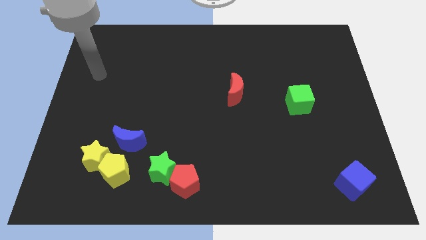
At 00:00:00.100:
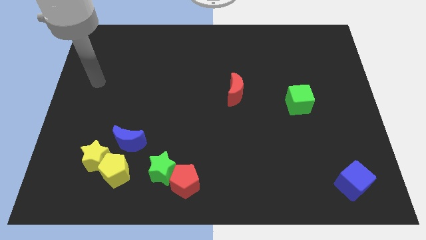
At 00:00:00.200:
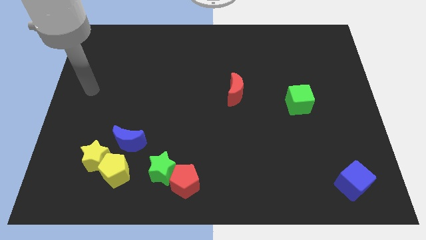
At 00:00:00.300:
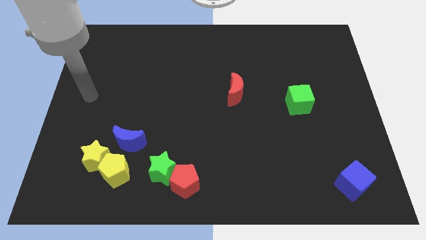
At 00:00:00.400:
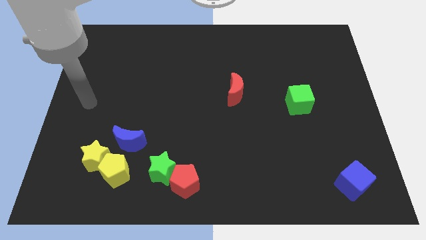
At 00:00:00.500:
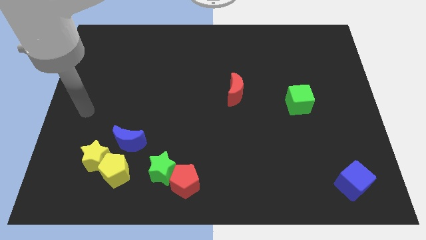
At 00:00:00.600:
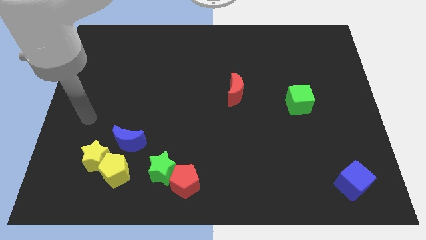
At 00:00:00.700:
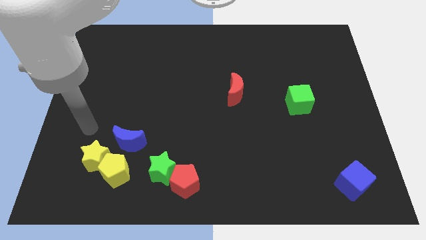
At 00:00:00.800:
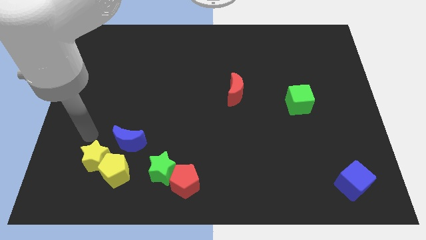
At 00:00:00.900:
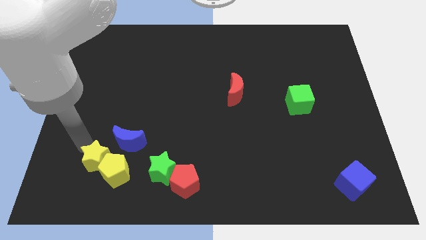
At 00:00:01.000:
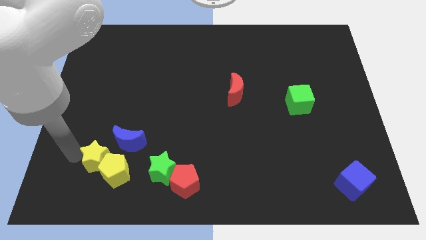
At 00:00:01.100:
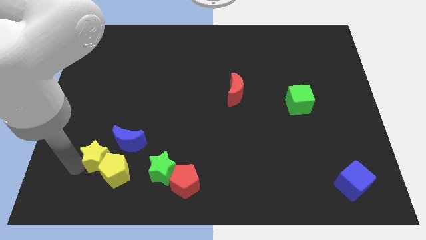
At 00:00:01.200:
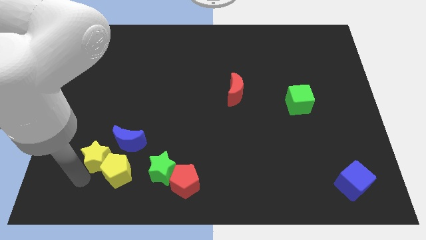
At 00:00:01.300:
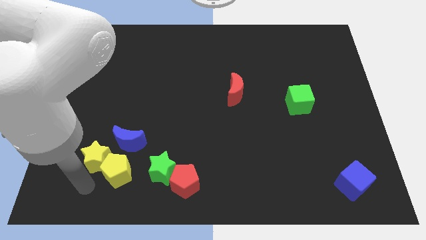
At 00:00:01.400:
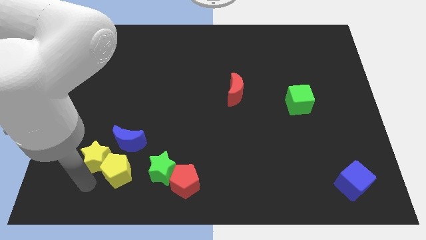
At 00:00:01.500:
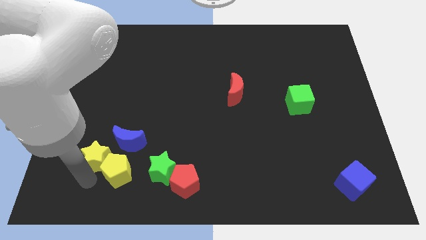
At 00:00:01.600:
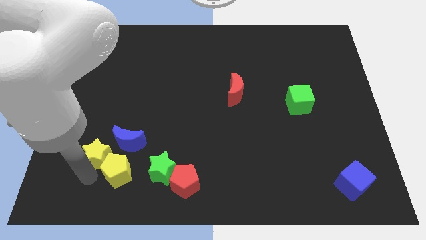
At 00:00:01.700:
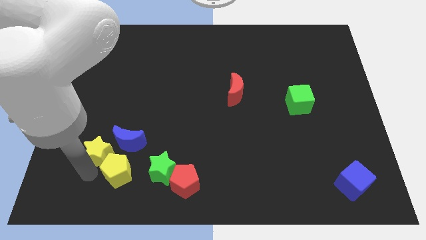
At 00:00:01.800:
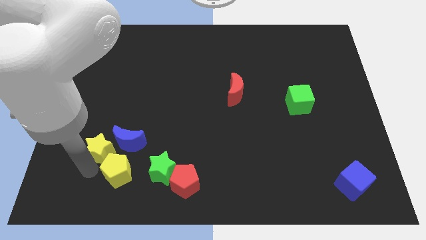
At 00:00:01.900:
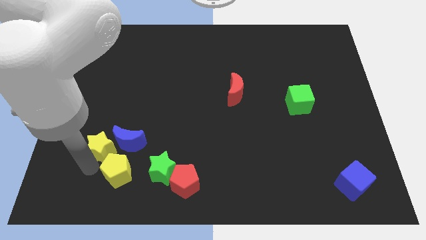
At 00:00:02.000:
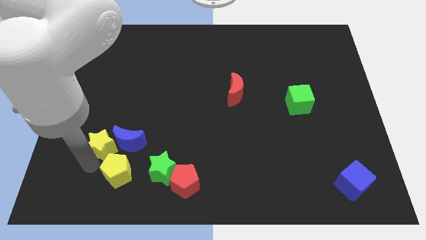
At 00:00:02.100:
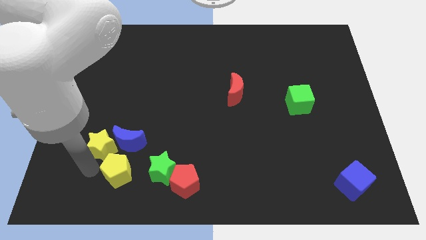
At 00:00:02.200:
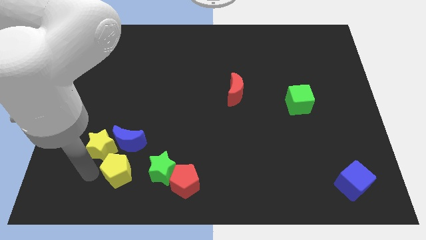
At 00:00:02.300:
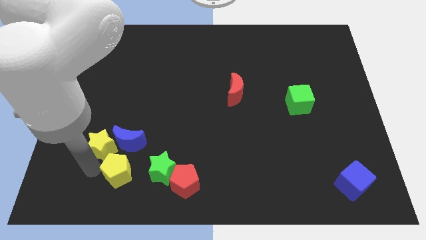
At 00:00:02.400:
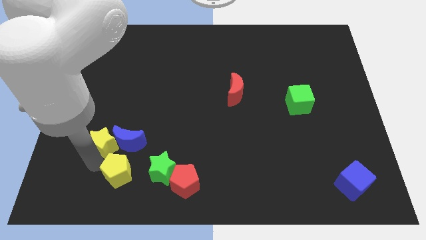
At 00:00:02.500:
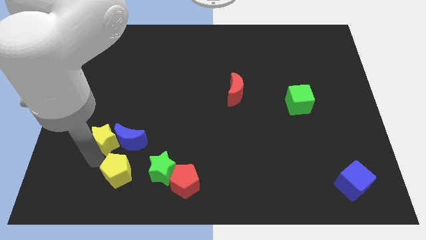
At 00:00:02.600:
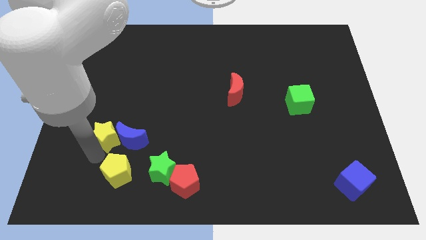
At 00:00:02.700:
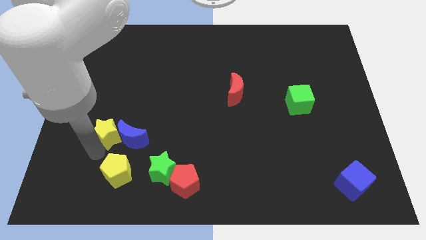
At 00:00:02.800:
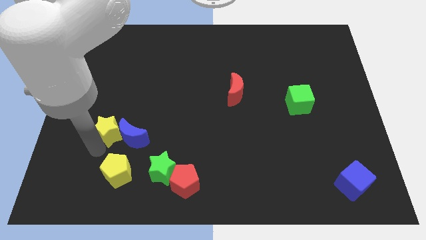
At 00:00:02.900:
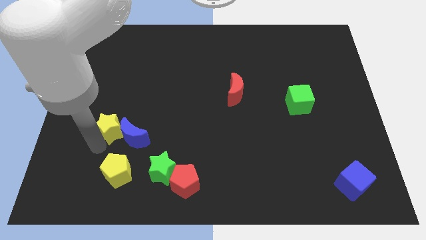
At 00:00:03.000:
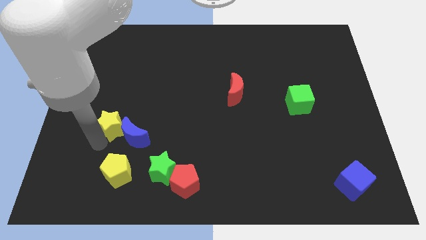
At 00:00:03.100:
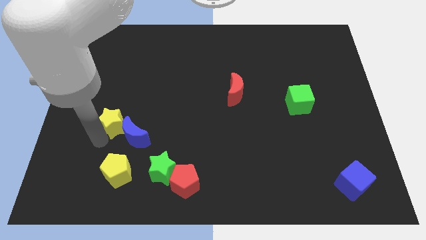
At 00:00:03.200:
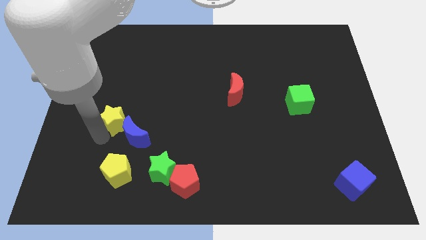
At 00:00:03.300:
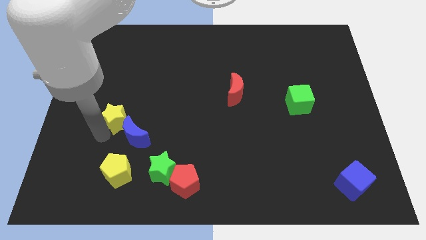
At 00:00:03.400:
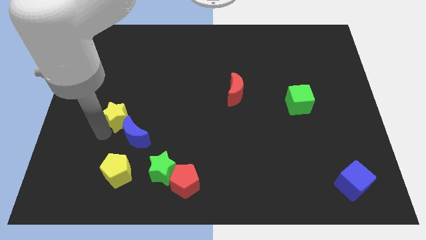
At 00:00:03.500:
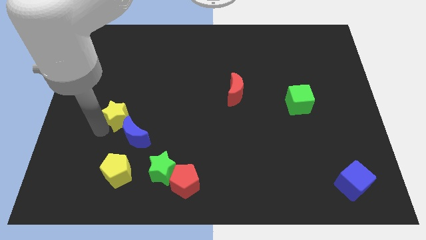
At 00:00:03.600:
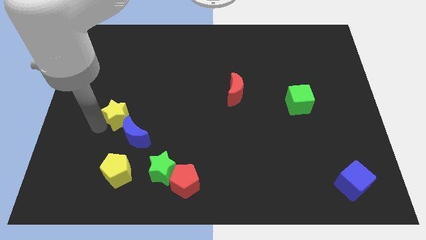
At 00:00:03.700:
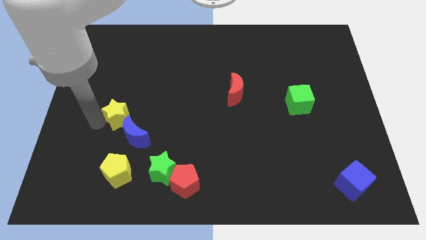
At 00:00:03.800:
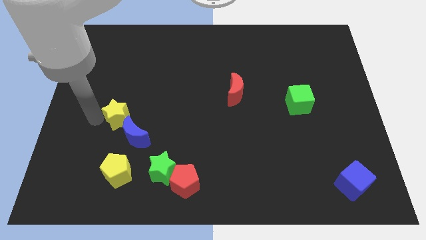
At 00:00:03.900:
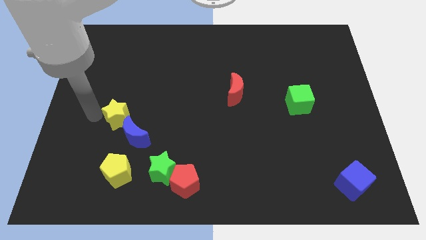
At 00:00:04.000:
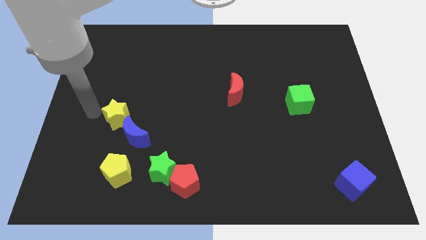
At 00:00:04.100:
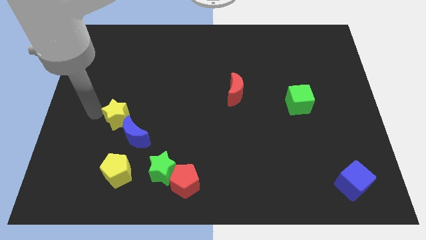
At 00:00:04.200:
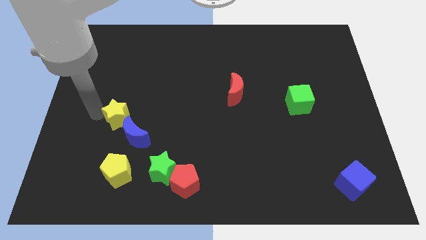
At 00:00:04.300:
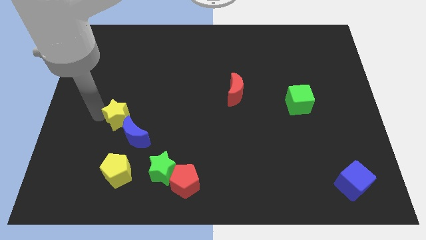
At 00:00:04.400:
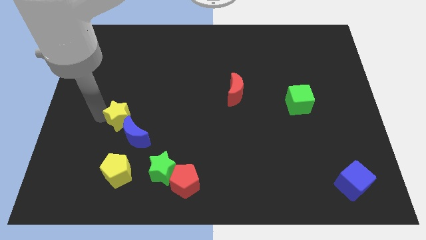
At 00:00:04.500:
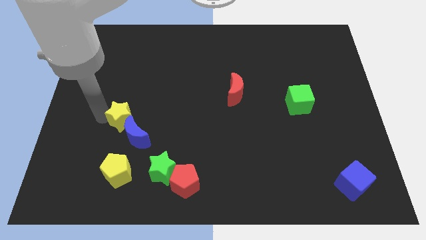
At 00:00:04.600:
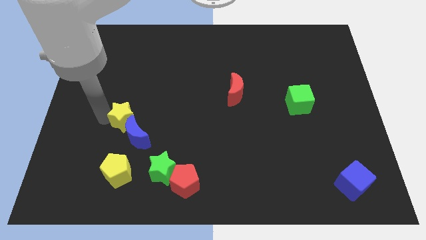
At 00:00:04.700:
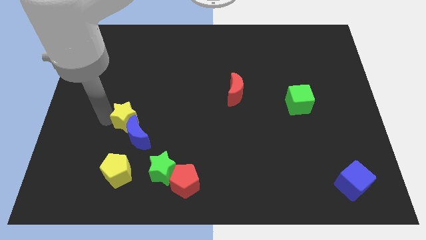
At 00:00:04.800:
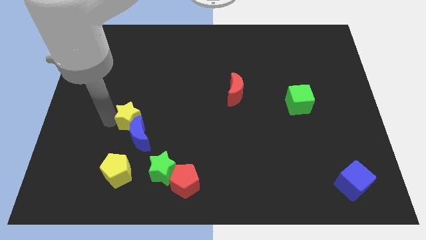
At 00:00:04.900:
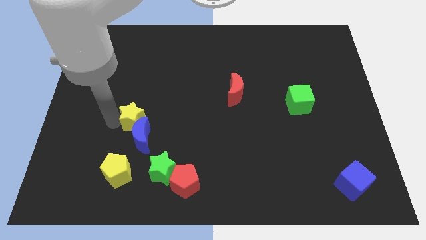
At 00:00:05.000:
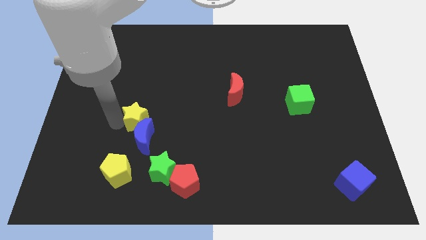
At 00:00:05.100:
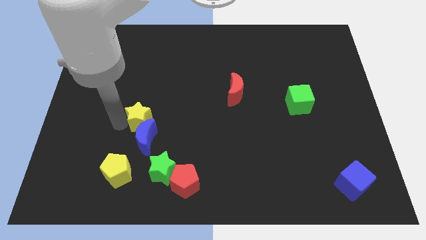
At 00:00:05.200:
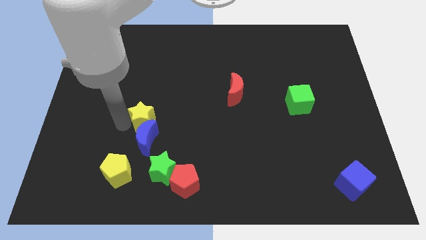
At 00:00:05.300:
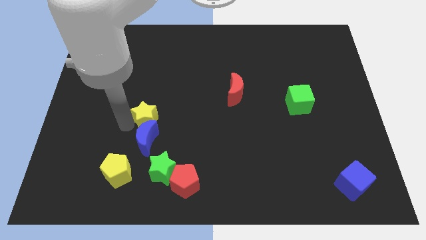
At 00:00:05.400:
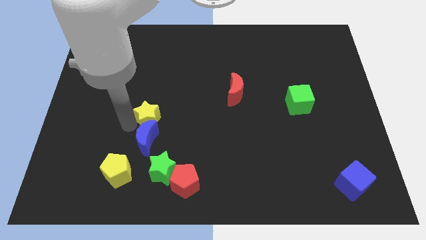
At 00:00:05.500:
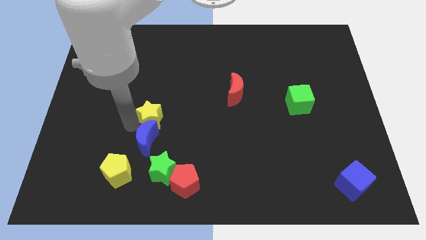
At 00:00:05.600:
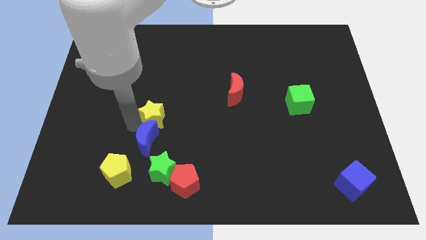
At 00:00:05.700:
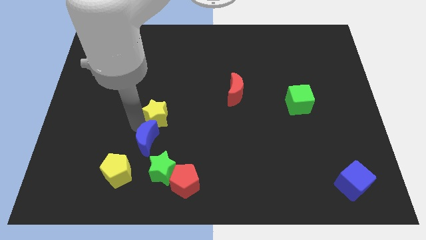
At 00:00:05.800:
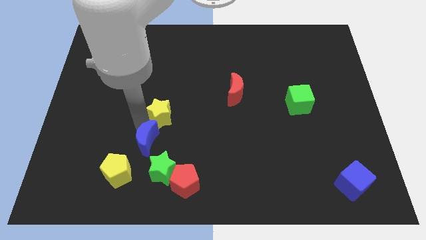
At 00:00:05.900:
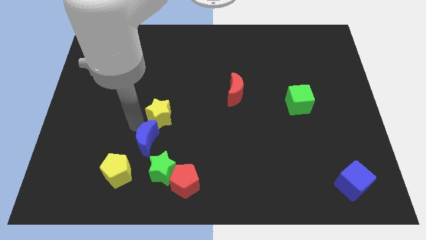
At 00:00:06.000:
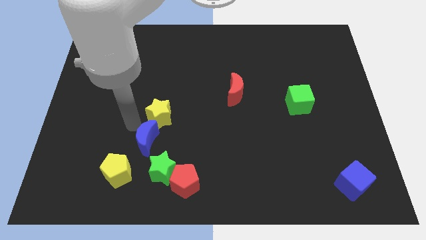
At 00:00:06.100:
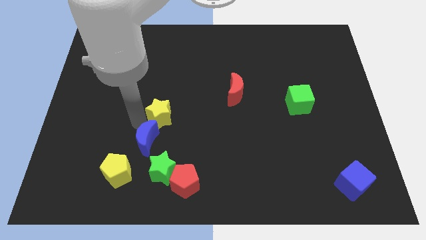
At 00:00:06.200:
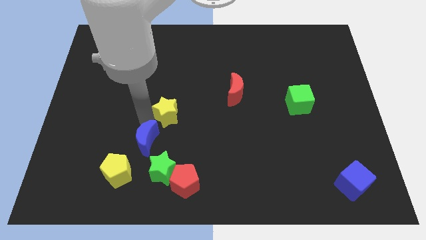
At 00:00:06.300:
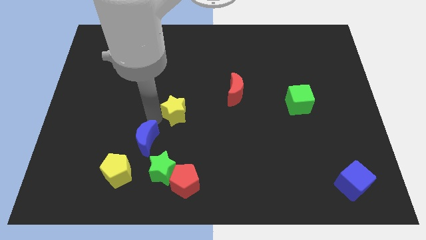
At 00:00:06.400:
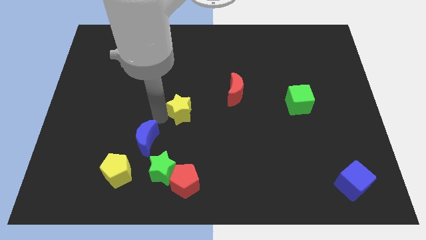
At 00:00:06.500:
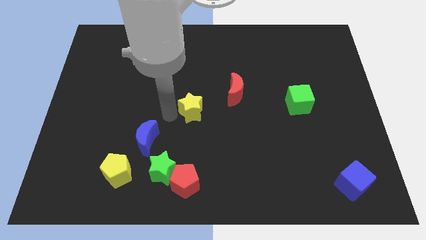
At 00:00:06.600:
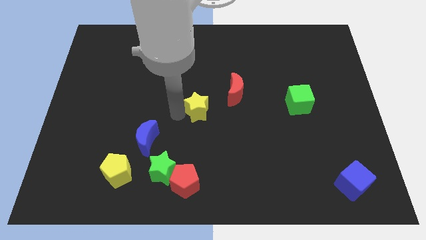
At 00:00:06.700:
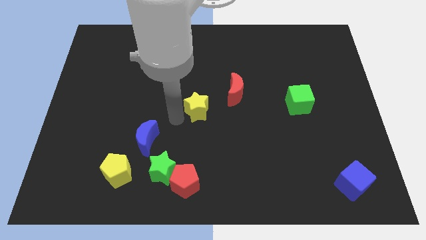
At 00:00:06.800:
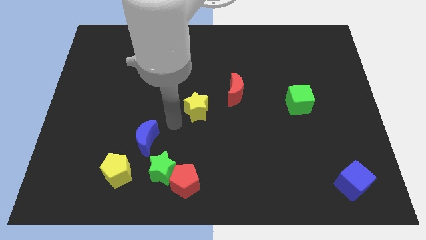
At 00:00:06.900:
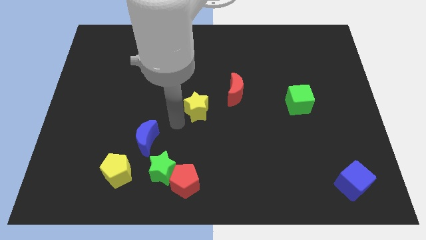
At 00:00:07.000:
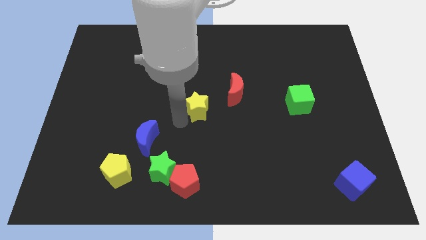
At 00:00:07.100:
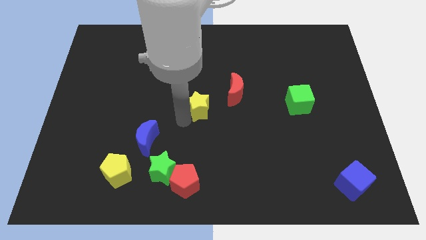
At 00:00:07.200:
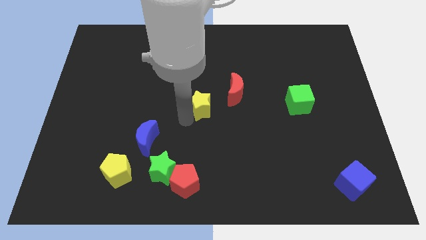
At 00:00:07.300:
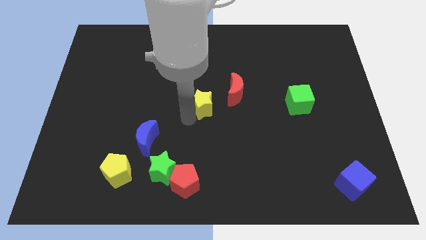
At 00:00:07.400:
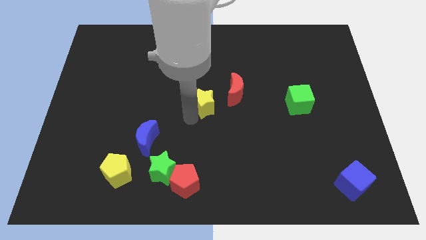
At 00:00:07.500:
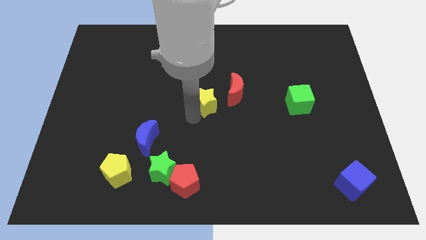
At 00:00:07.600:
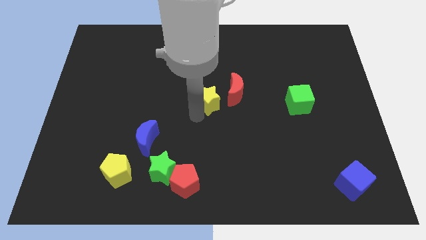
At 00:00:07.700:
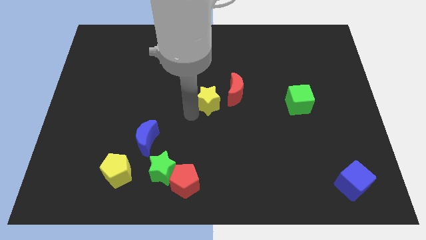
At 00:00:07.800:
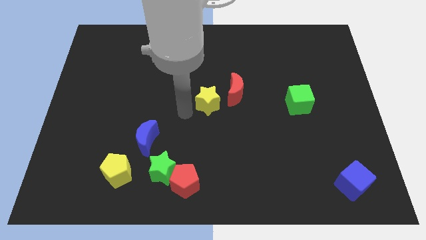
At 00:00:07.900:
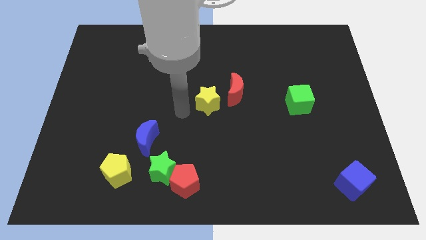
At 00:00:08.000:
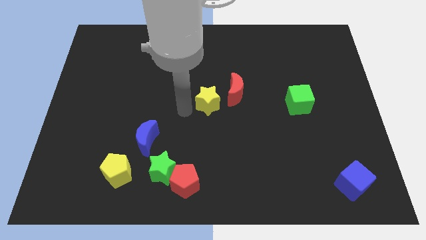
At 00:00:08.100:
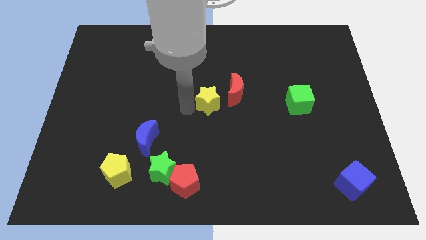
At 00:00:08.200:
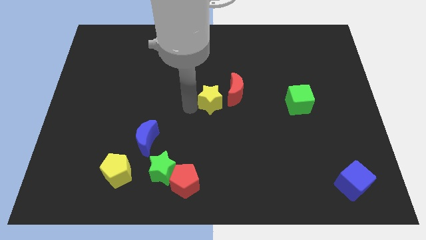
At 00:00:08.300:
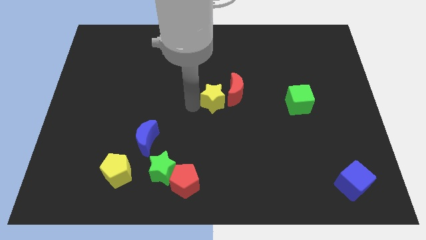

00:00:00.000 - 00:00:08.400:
push the yellow star close to the red moon
